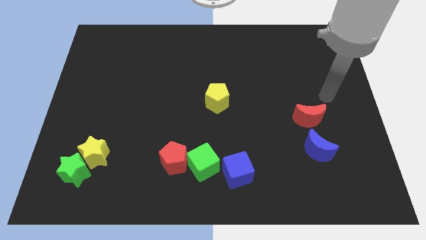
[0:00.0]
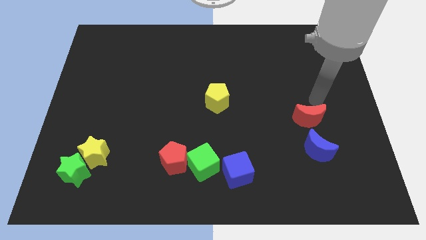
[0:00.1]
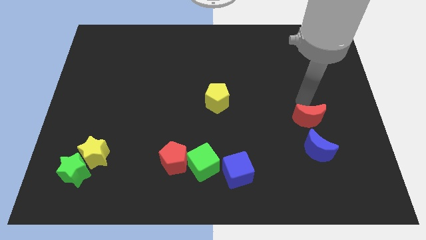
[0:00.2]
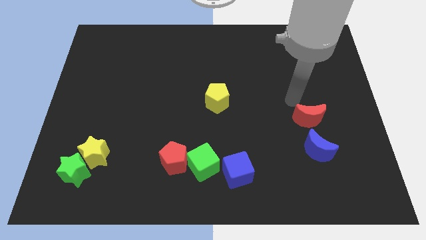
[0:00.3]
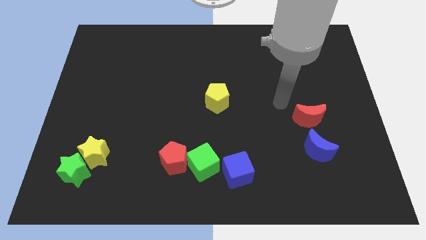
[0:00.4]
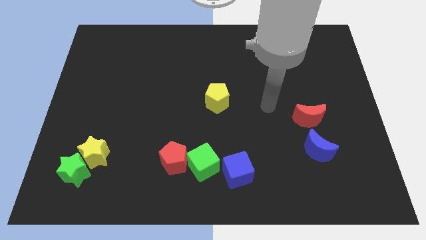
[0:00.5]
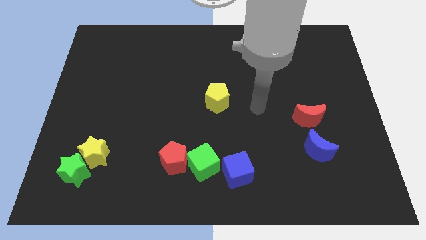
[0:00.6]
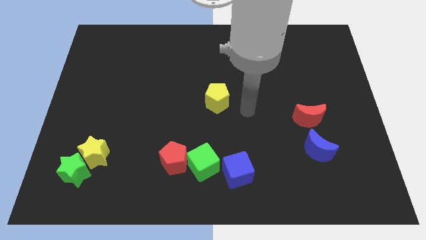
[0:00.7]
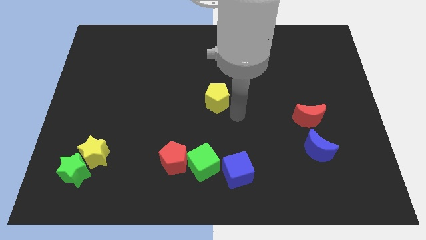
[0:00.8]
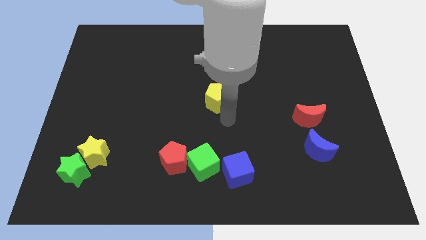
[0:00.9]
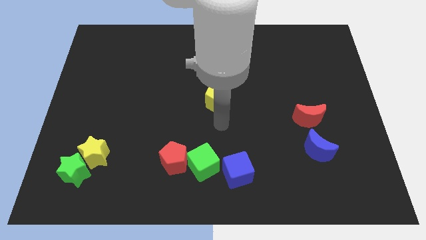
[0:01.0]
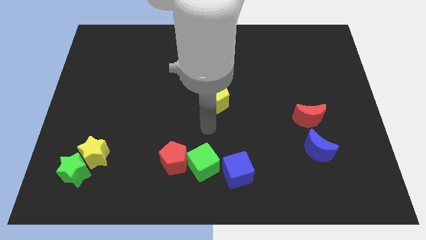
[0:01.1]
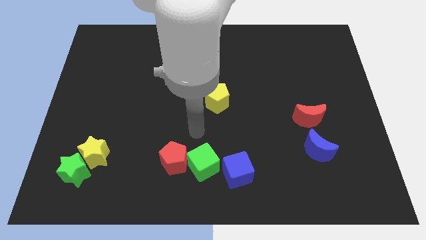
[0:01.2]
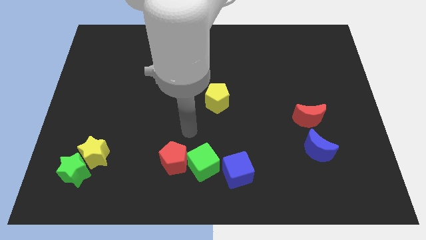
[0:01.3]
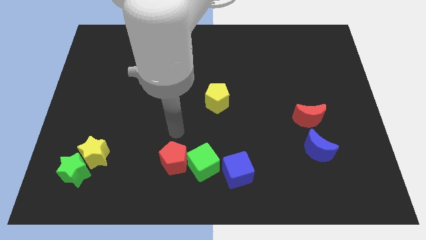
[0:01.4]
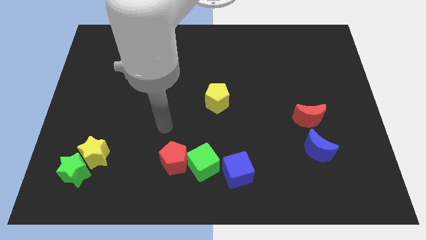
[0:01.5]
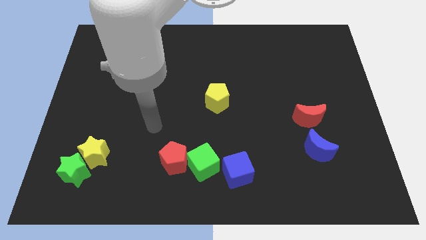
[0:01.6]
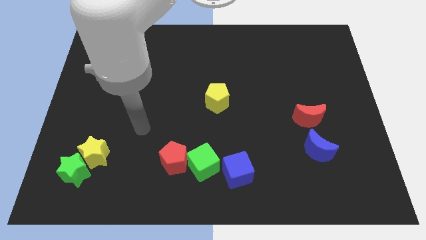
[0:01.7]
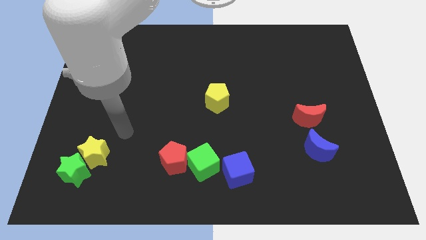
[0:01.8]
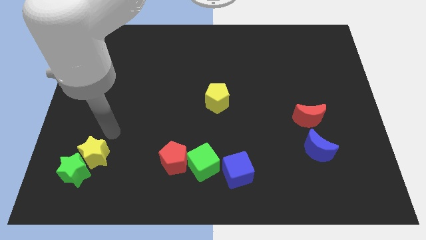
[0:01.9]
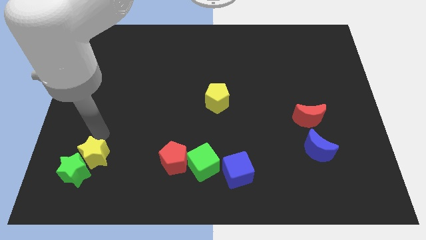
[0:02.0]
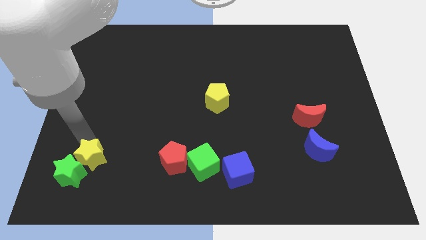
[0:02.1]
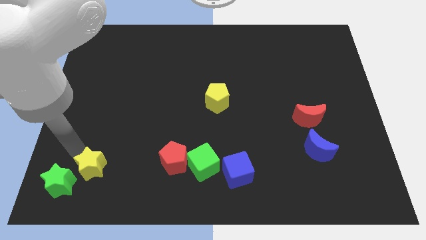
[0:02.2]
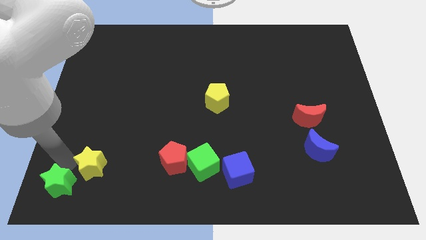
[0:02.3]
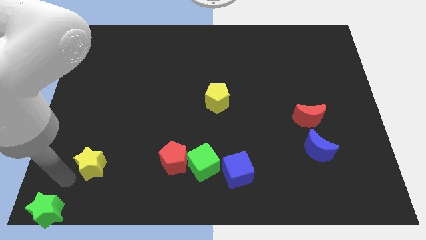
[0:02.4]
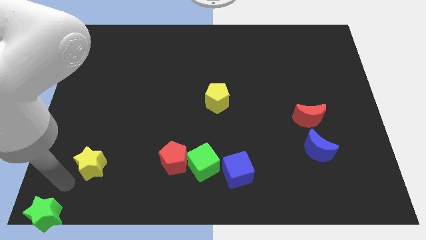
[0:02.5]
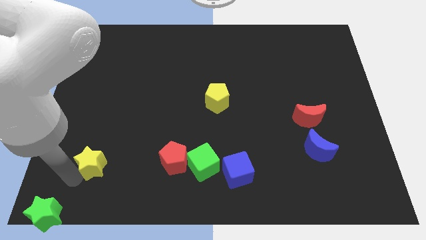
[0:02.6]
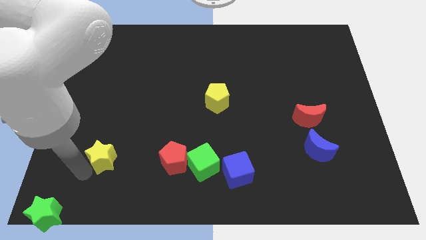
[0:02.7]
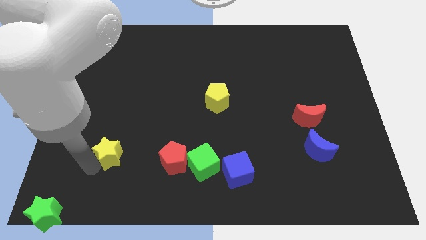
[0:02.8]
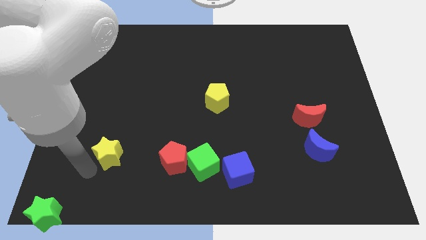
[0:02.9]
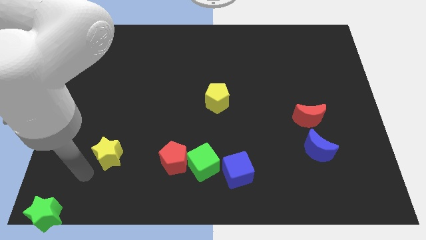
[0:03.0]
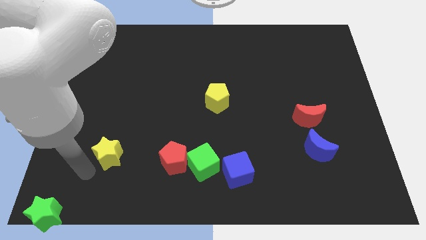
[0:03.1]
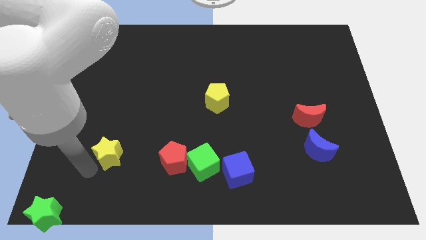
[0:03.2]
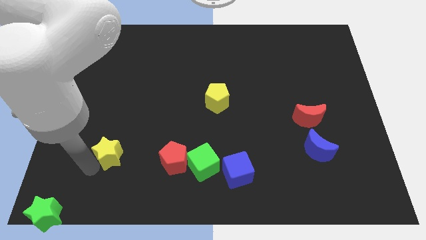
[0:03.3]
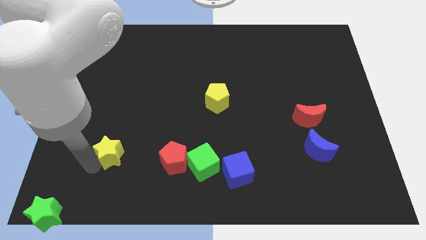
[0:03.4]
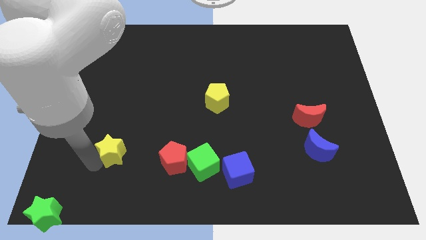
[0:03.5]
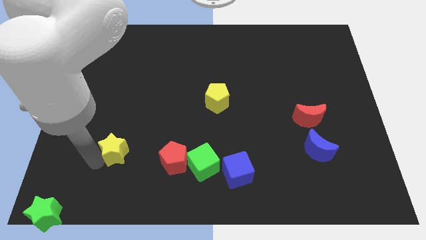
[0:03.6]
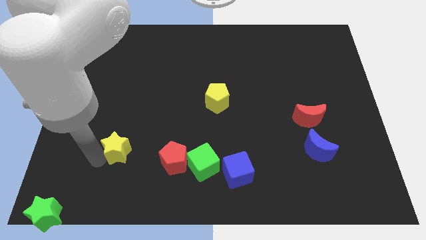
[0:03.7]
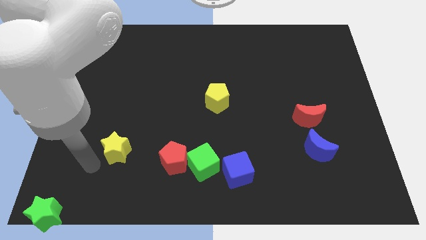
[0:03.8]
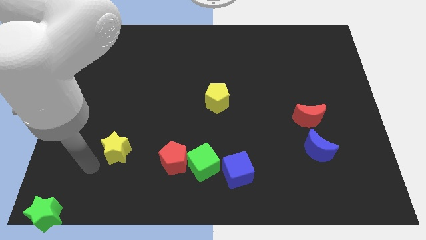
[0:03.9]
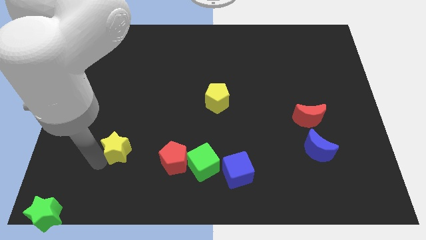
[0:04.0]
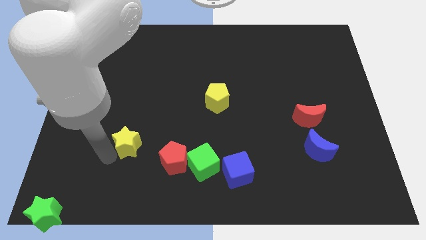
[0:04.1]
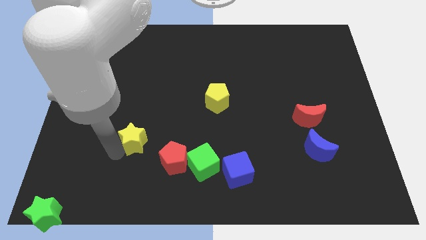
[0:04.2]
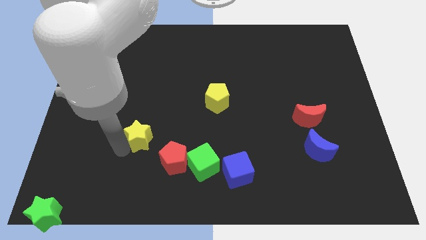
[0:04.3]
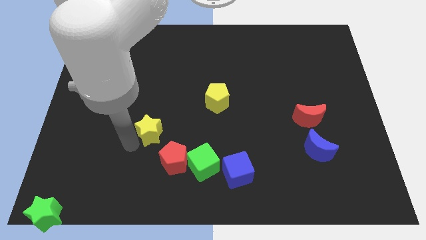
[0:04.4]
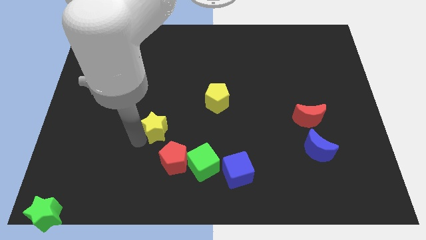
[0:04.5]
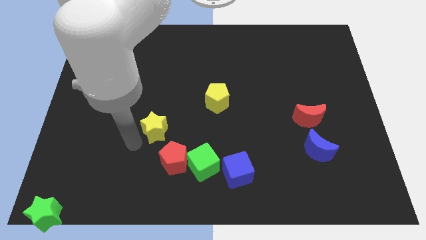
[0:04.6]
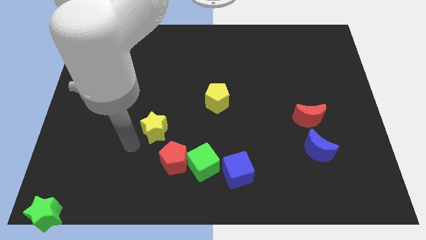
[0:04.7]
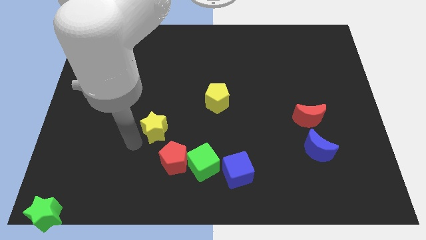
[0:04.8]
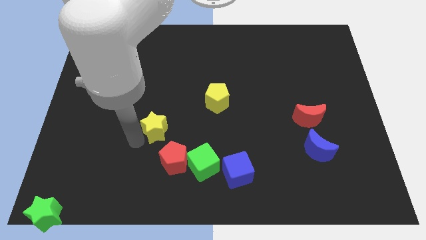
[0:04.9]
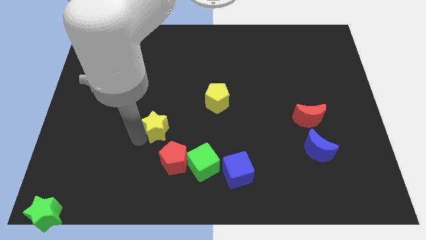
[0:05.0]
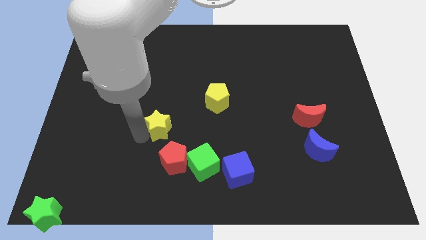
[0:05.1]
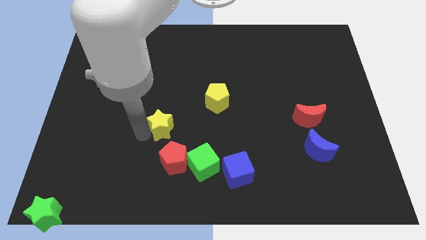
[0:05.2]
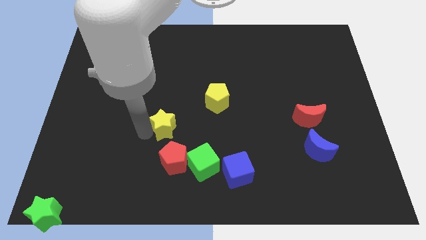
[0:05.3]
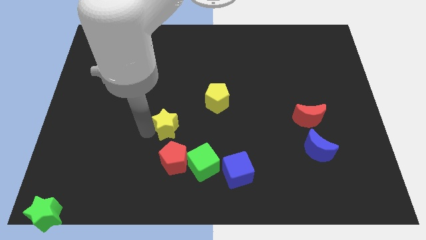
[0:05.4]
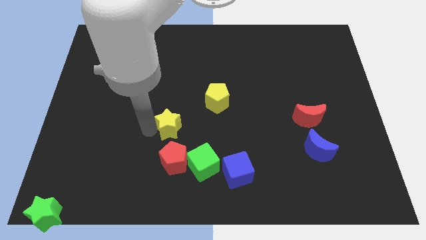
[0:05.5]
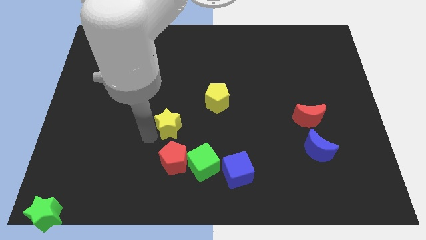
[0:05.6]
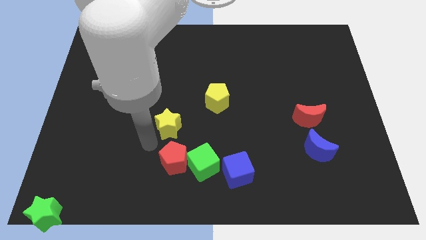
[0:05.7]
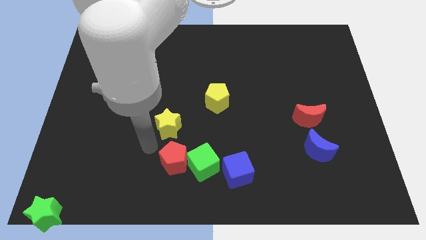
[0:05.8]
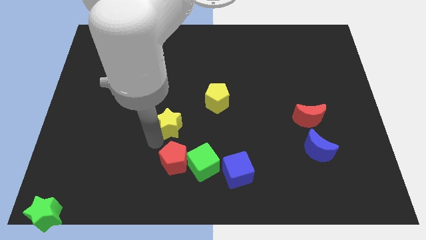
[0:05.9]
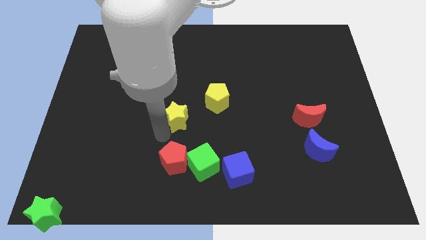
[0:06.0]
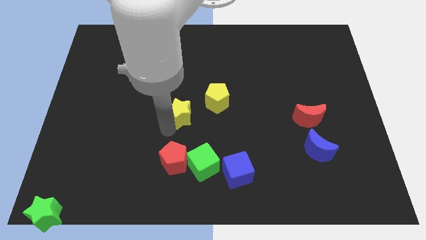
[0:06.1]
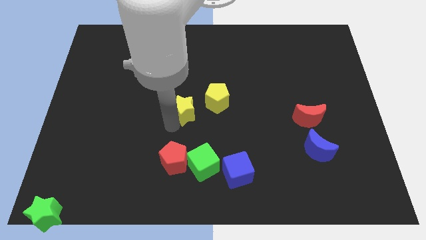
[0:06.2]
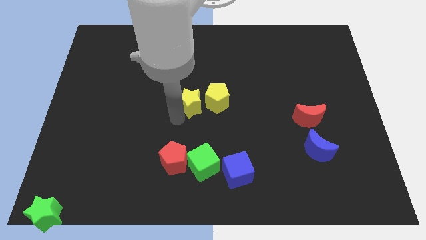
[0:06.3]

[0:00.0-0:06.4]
put the yellow star to the yellow pentagon

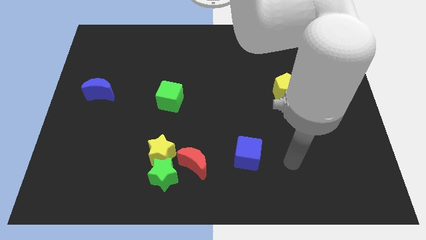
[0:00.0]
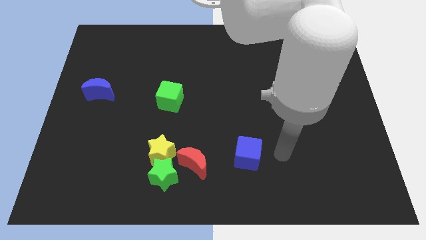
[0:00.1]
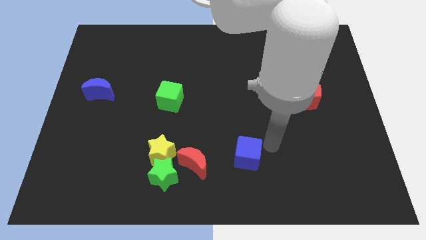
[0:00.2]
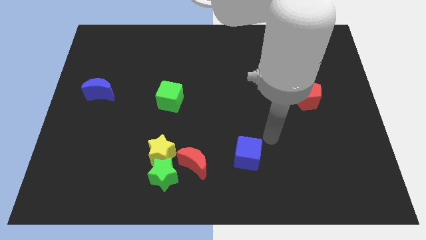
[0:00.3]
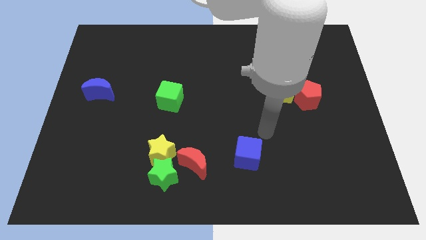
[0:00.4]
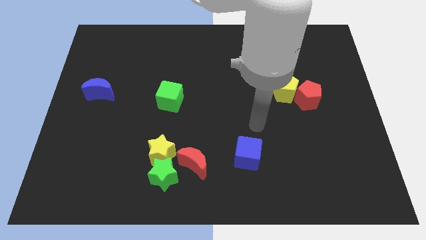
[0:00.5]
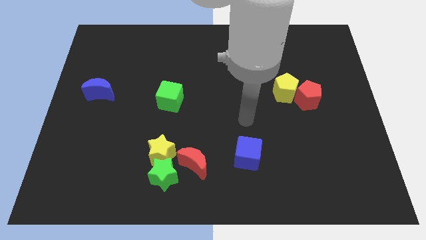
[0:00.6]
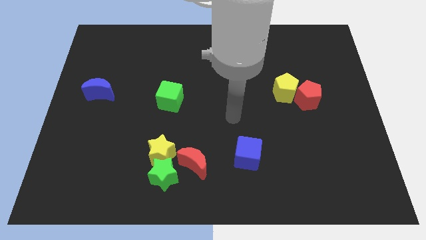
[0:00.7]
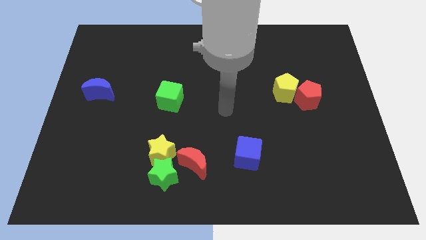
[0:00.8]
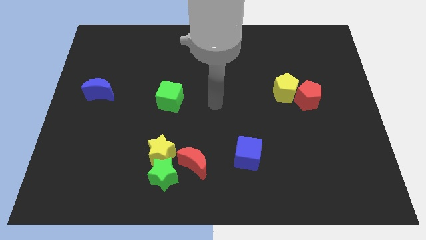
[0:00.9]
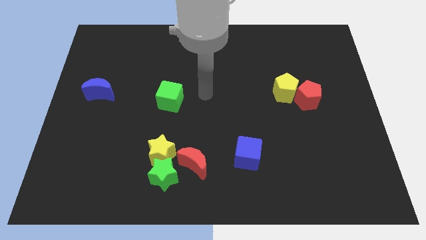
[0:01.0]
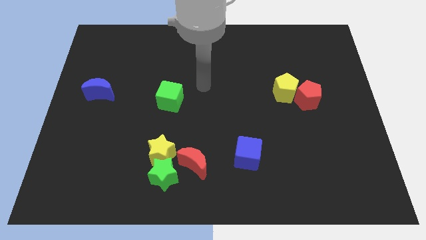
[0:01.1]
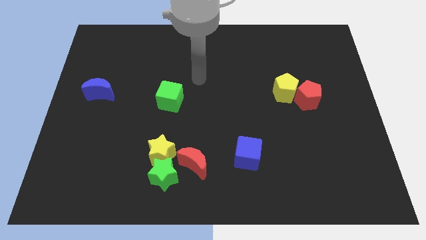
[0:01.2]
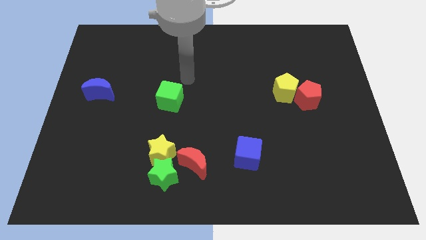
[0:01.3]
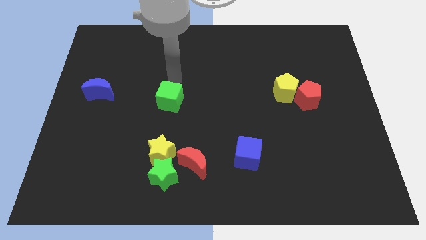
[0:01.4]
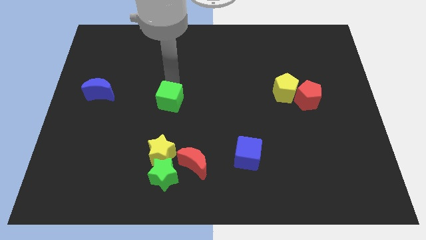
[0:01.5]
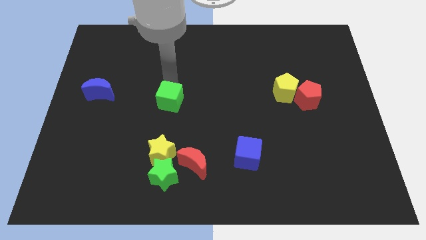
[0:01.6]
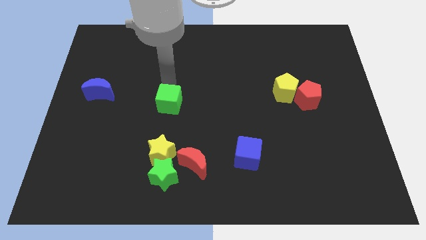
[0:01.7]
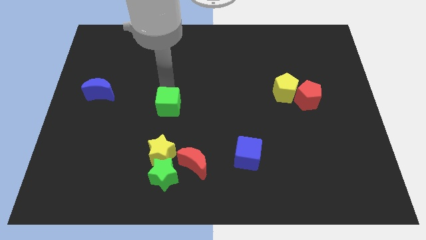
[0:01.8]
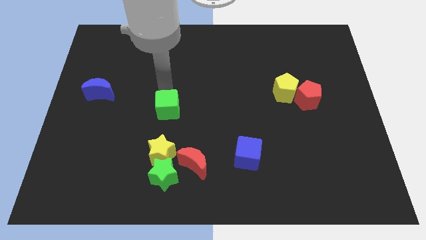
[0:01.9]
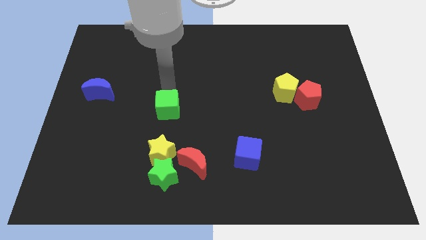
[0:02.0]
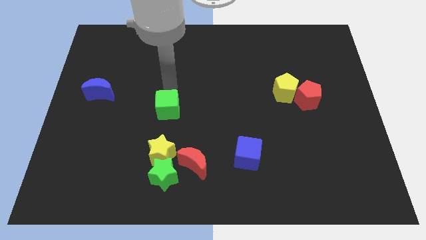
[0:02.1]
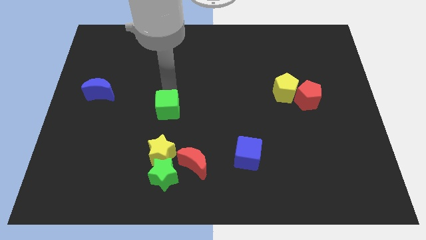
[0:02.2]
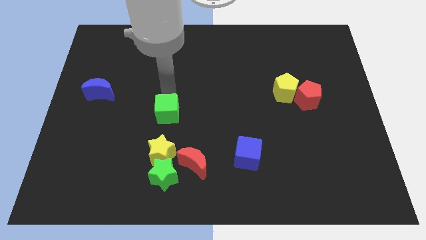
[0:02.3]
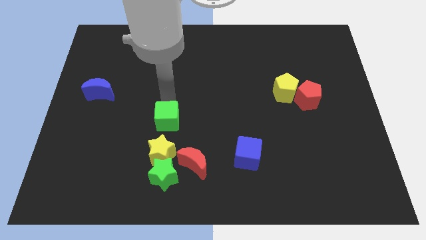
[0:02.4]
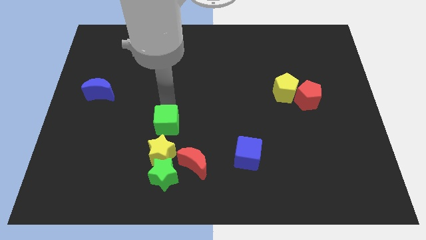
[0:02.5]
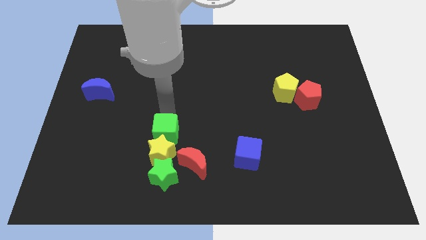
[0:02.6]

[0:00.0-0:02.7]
slide the green cube towards the yellow star
